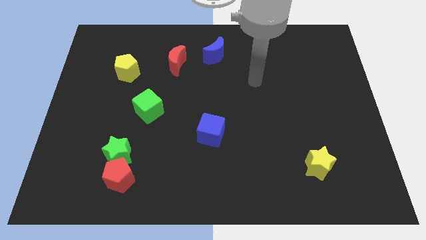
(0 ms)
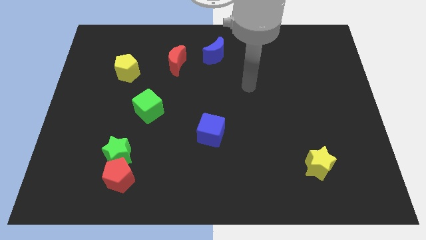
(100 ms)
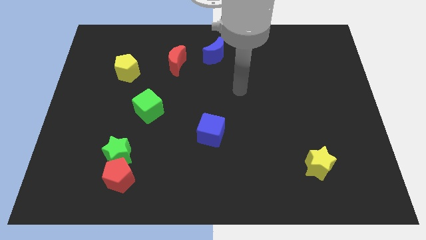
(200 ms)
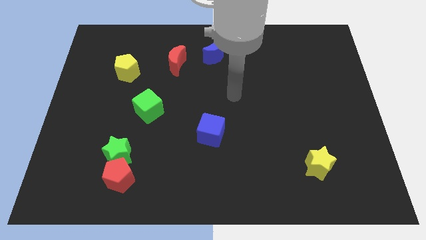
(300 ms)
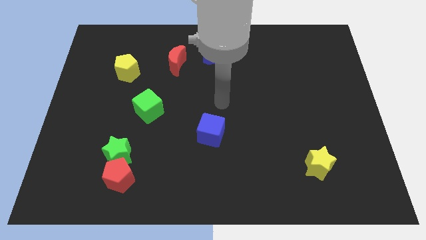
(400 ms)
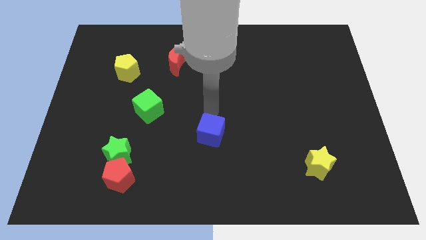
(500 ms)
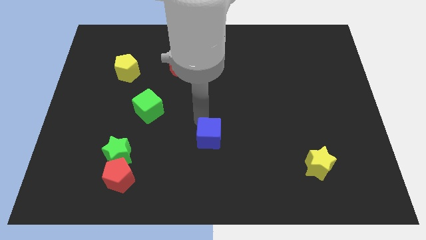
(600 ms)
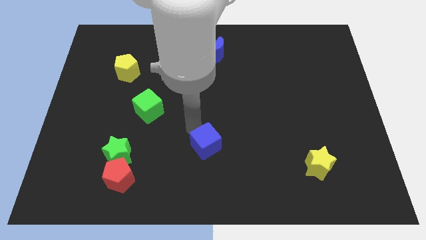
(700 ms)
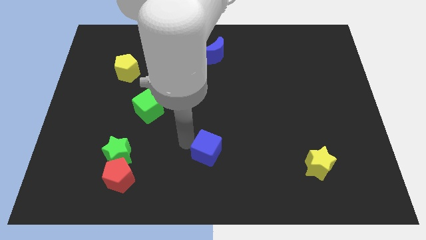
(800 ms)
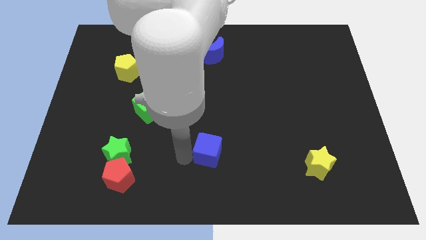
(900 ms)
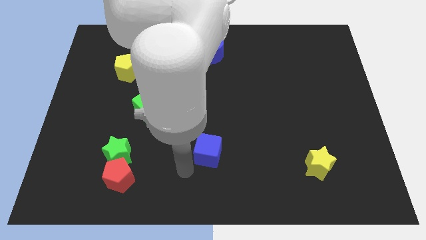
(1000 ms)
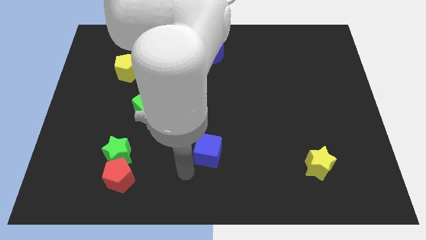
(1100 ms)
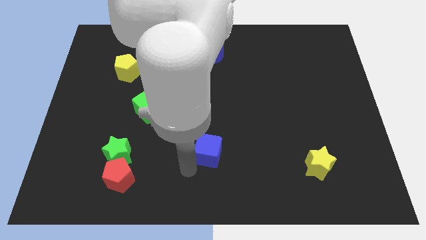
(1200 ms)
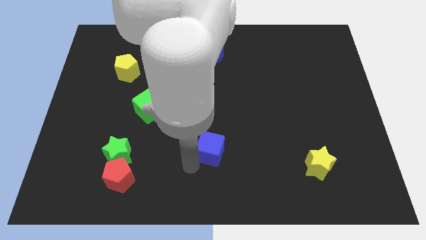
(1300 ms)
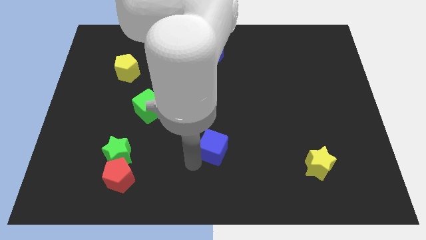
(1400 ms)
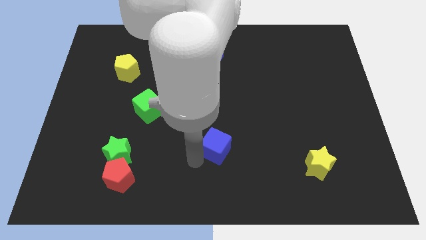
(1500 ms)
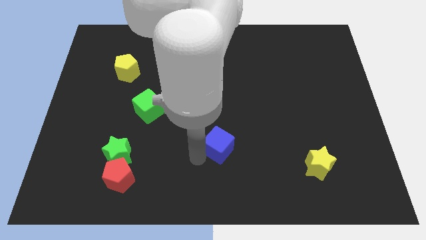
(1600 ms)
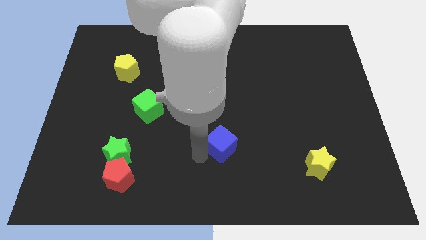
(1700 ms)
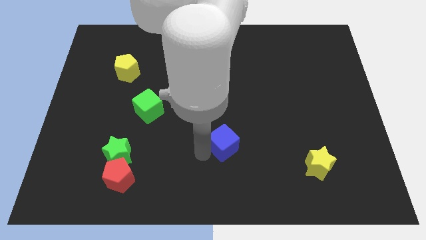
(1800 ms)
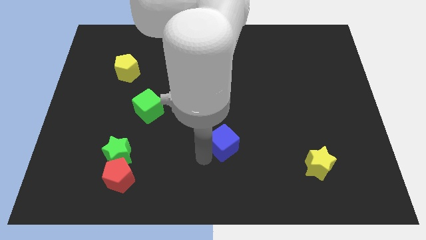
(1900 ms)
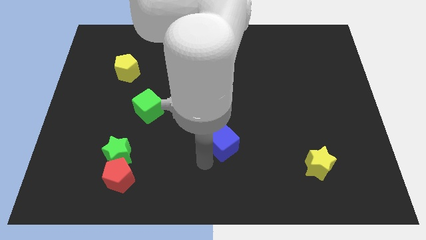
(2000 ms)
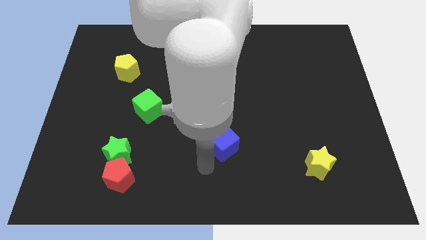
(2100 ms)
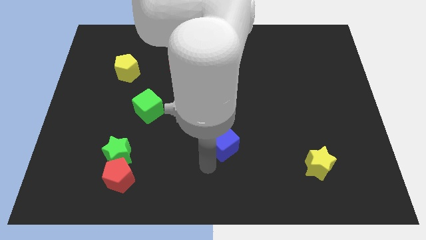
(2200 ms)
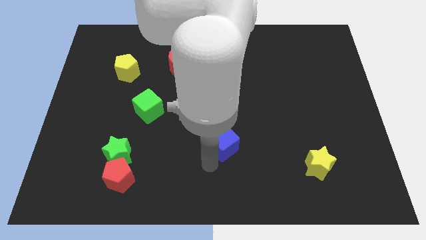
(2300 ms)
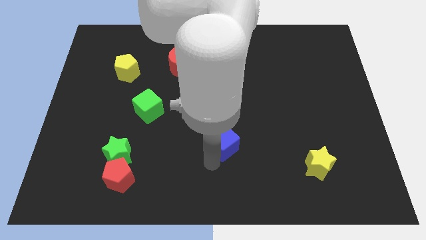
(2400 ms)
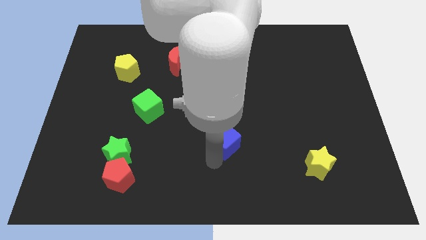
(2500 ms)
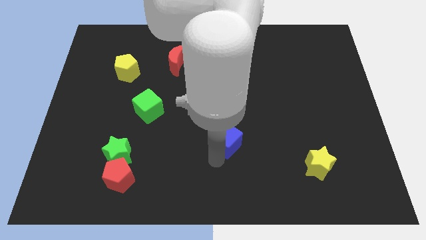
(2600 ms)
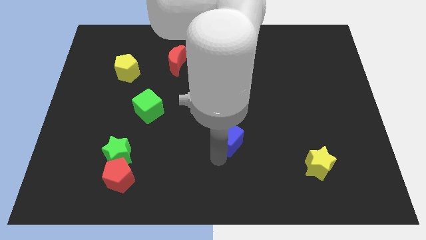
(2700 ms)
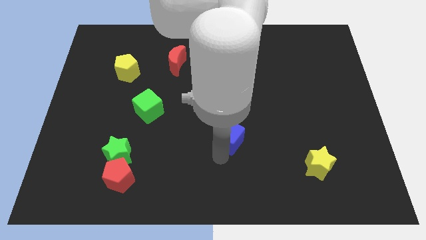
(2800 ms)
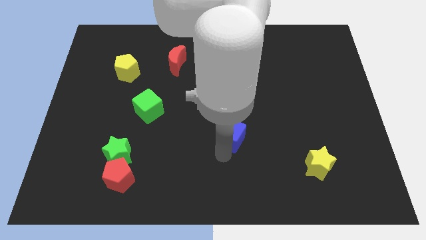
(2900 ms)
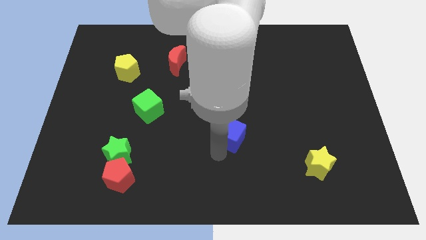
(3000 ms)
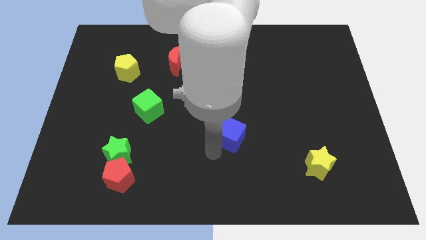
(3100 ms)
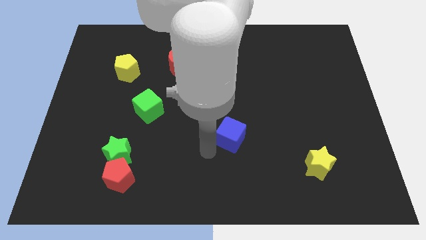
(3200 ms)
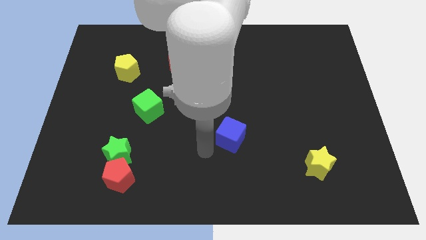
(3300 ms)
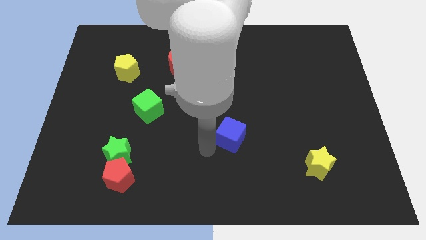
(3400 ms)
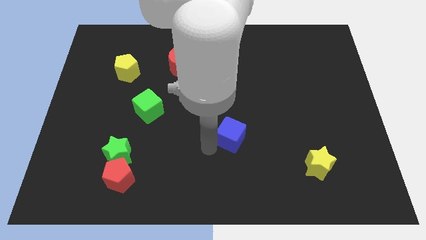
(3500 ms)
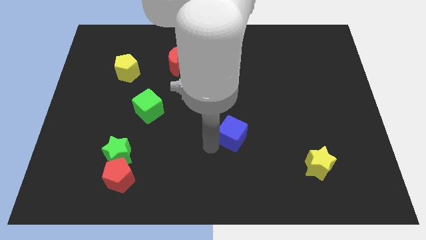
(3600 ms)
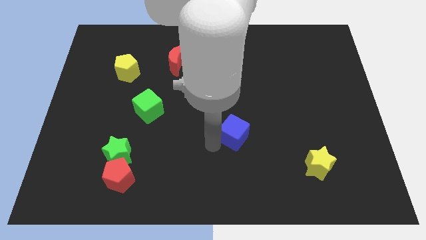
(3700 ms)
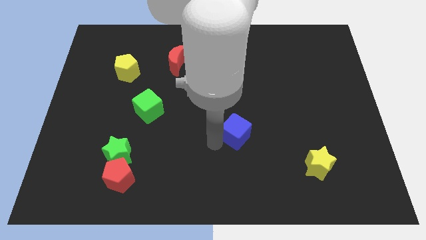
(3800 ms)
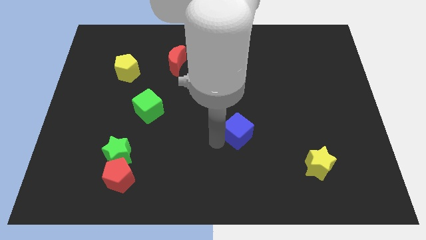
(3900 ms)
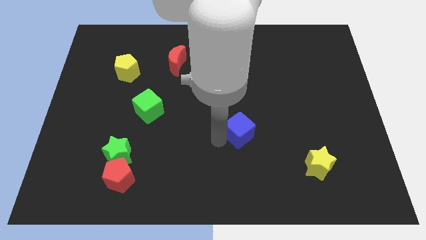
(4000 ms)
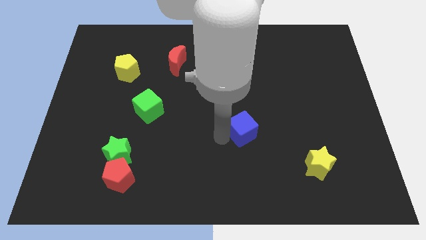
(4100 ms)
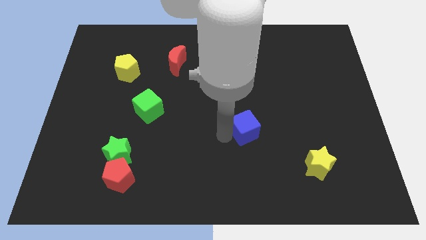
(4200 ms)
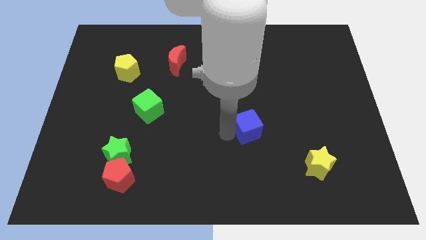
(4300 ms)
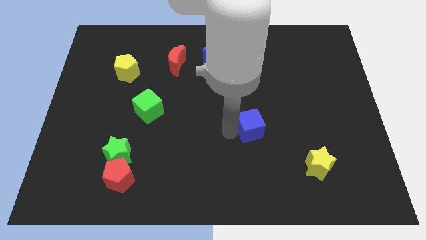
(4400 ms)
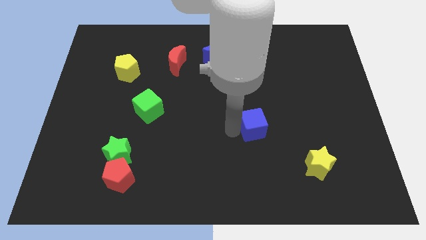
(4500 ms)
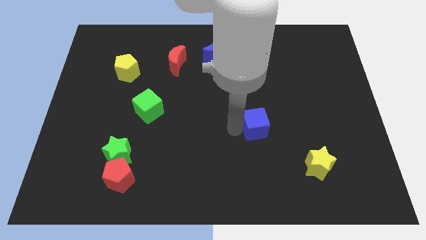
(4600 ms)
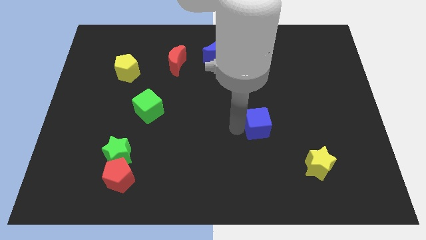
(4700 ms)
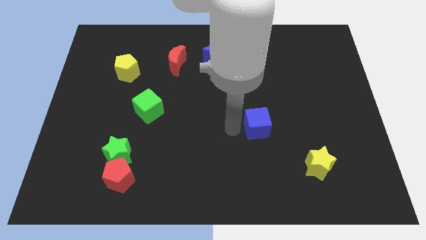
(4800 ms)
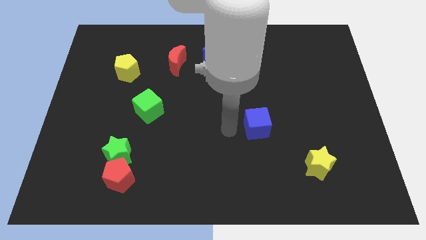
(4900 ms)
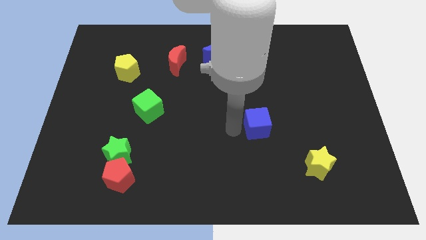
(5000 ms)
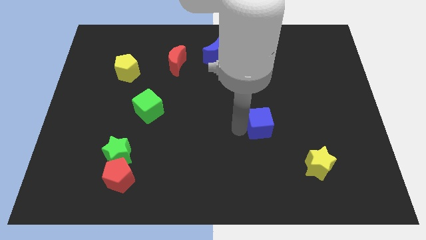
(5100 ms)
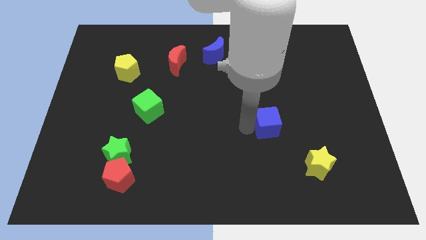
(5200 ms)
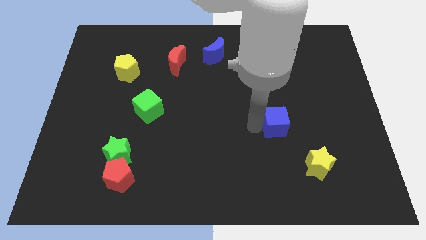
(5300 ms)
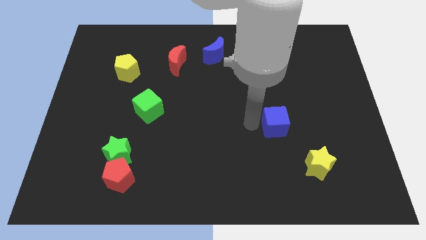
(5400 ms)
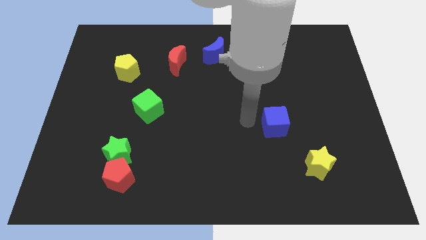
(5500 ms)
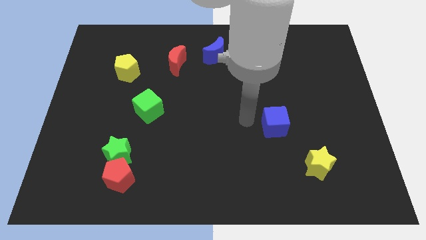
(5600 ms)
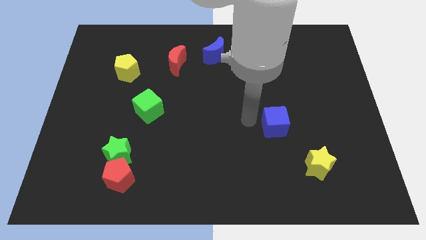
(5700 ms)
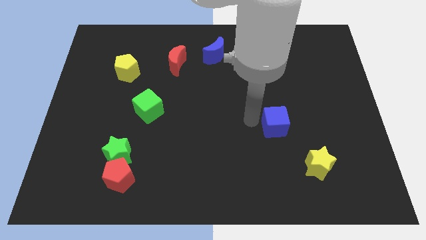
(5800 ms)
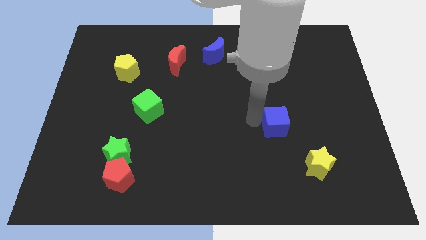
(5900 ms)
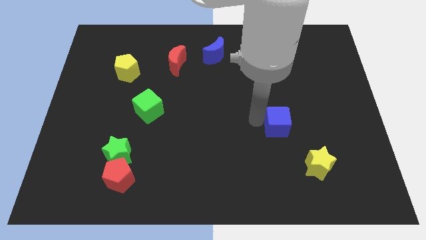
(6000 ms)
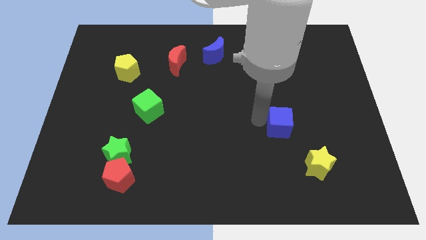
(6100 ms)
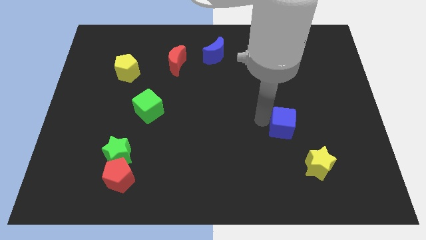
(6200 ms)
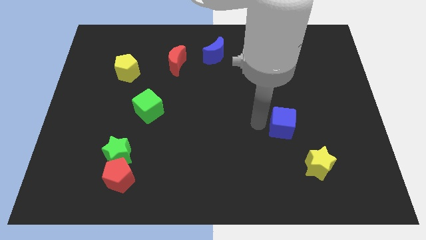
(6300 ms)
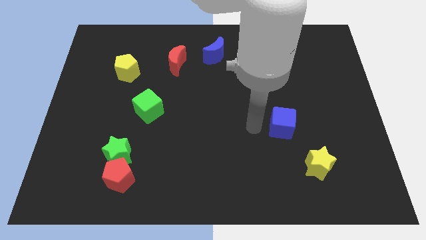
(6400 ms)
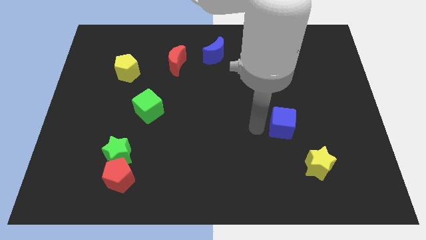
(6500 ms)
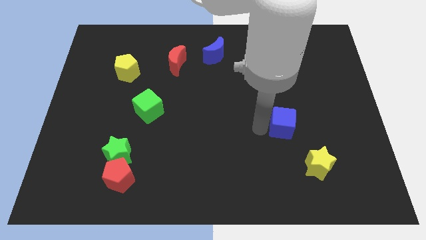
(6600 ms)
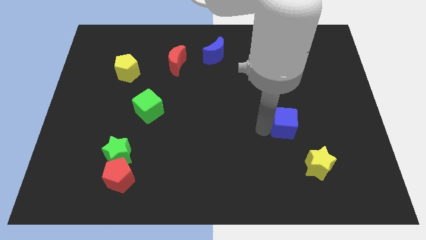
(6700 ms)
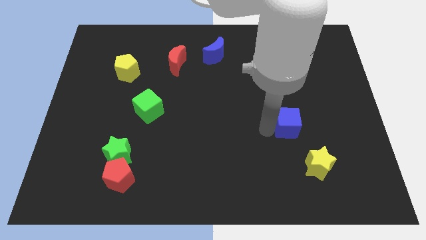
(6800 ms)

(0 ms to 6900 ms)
push the blue cube to the top of the yellow star
